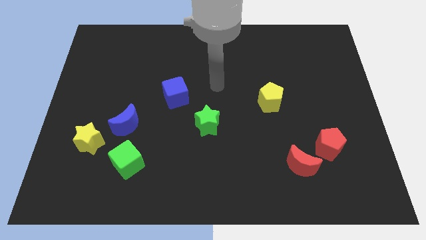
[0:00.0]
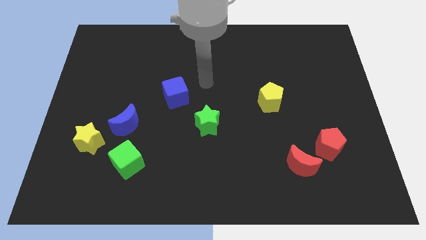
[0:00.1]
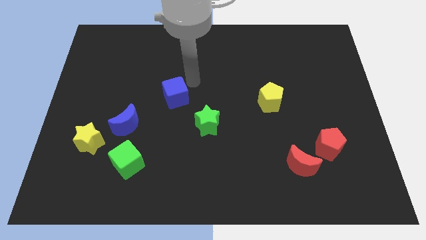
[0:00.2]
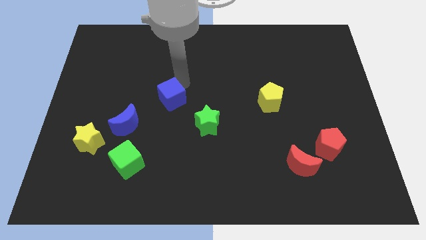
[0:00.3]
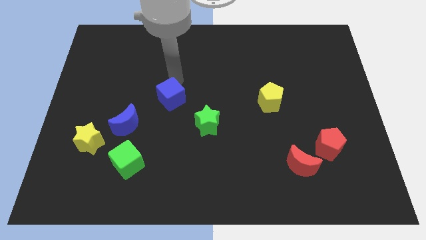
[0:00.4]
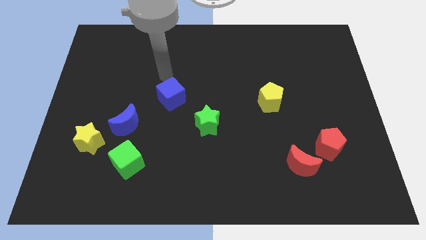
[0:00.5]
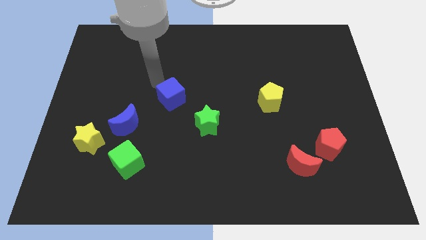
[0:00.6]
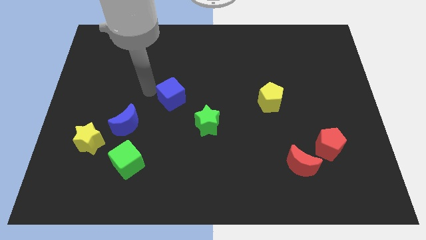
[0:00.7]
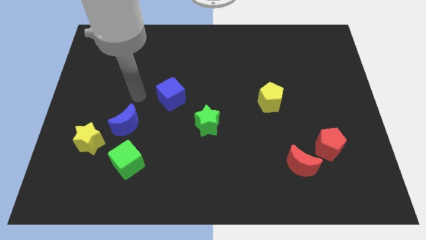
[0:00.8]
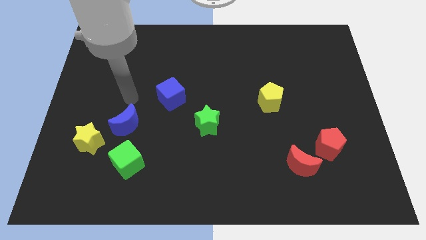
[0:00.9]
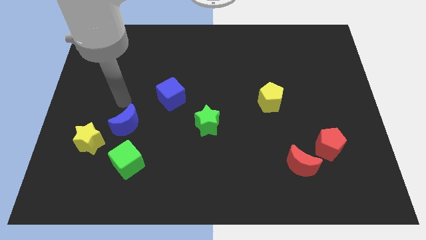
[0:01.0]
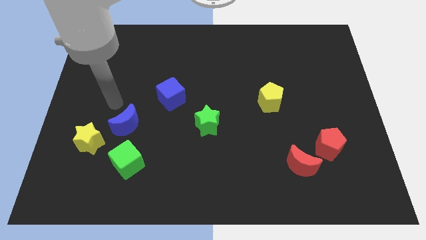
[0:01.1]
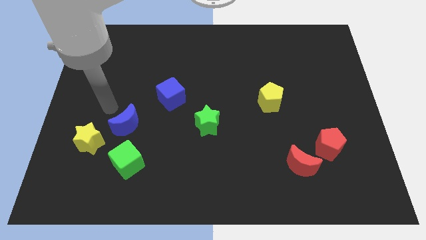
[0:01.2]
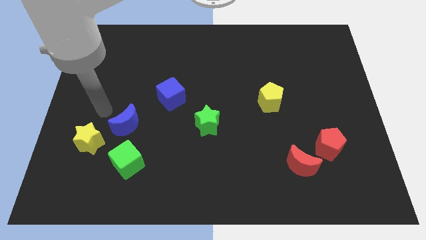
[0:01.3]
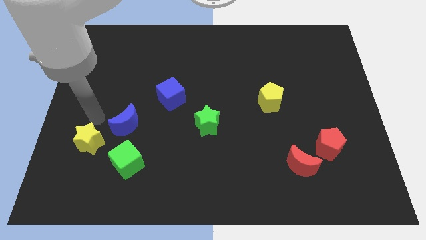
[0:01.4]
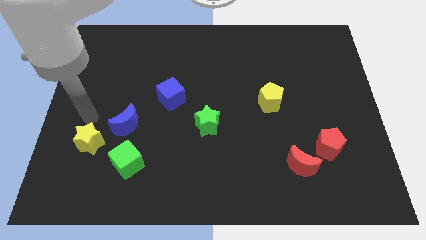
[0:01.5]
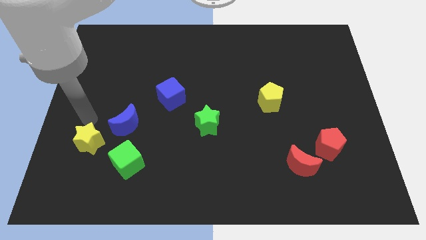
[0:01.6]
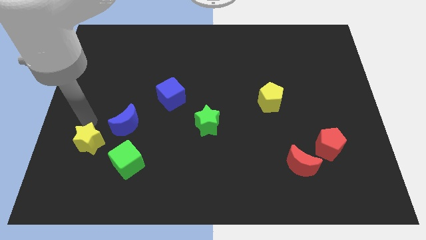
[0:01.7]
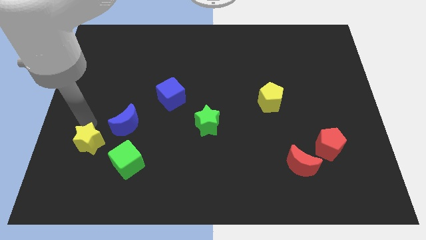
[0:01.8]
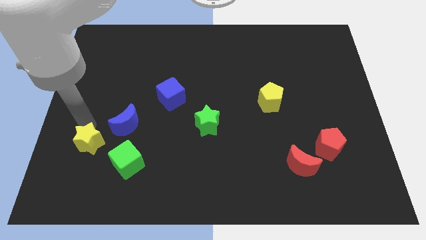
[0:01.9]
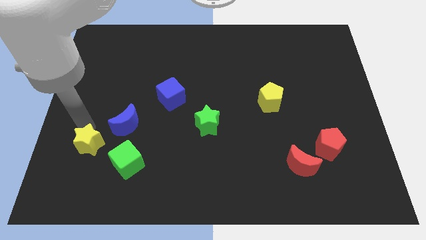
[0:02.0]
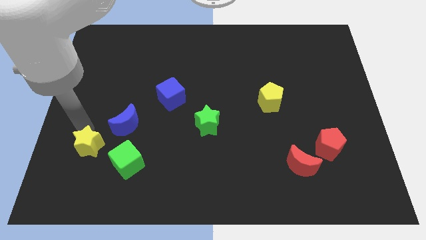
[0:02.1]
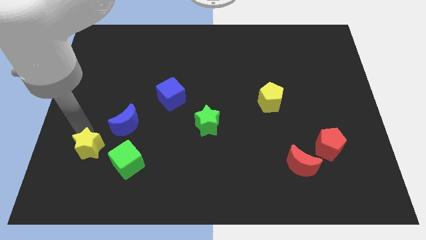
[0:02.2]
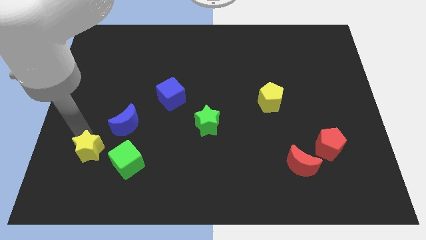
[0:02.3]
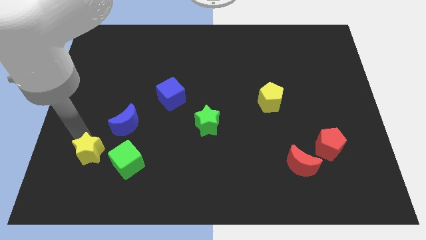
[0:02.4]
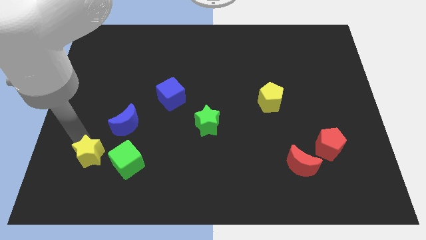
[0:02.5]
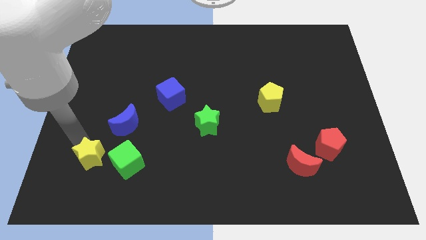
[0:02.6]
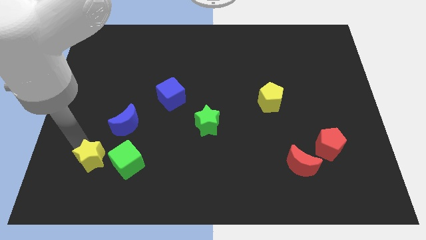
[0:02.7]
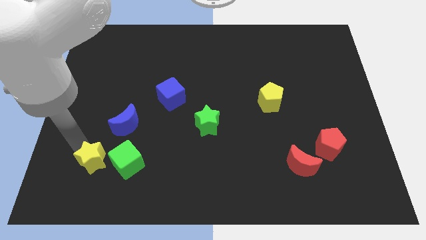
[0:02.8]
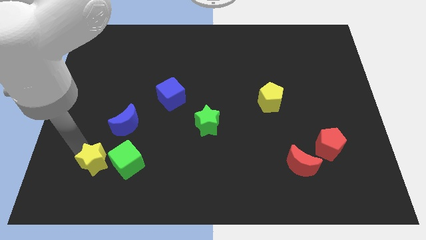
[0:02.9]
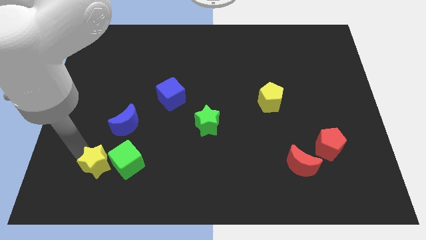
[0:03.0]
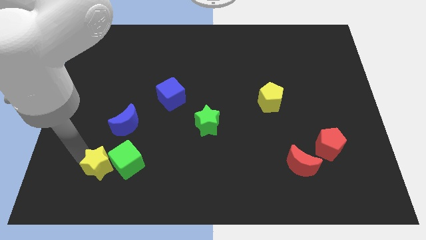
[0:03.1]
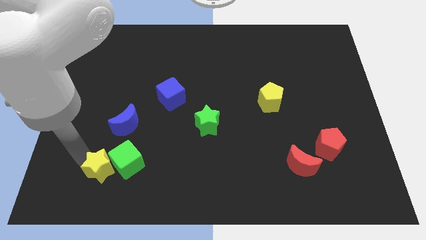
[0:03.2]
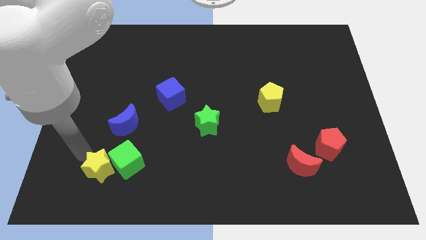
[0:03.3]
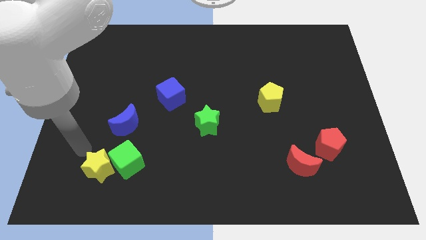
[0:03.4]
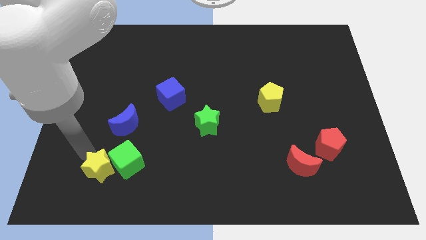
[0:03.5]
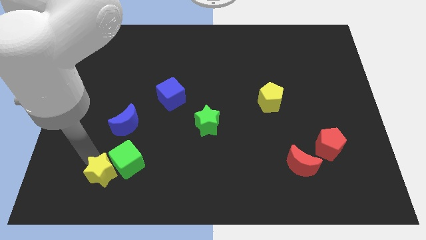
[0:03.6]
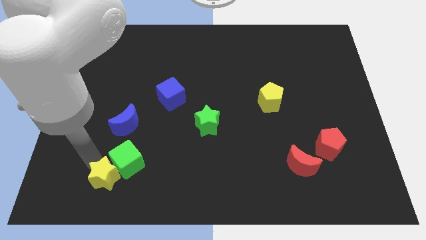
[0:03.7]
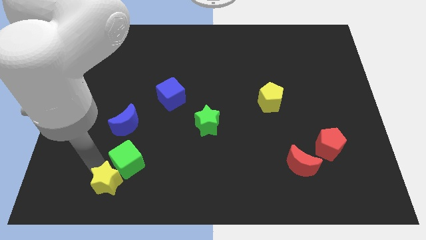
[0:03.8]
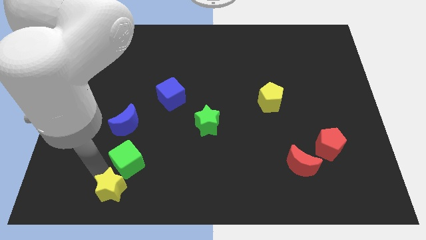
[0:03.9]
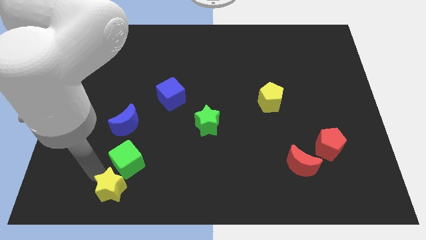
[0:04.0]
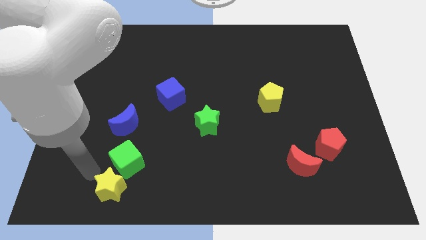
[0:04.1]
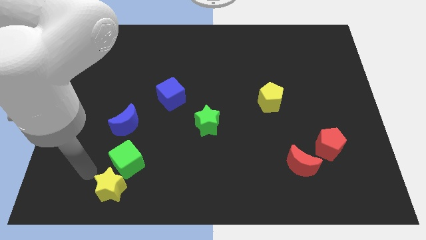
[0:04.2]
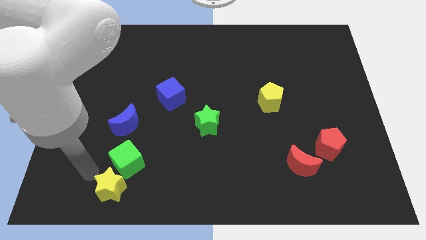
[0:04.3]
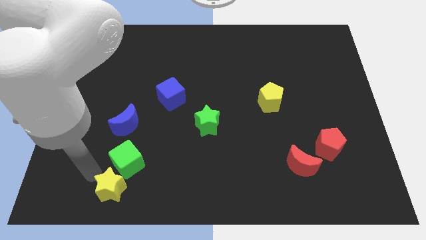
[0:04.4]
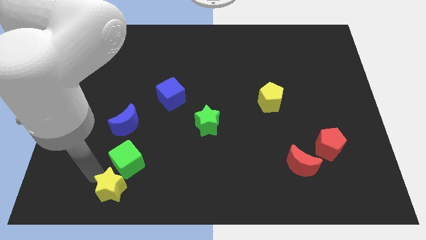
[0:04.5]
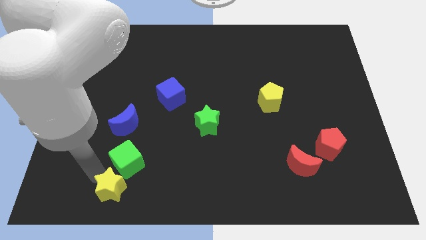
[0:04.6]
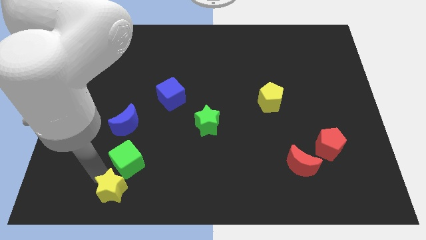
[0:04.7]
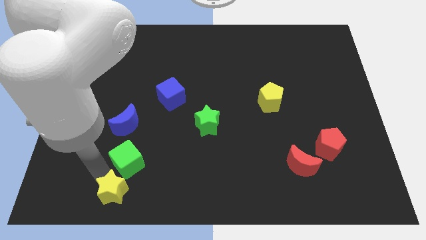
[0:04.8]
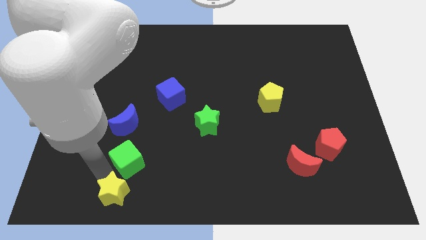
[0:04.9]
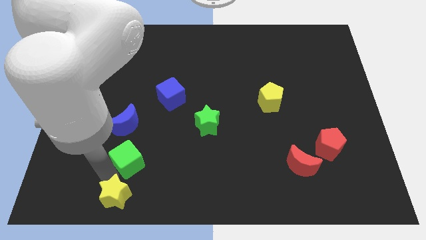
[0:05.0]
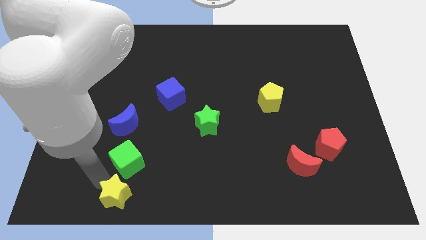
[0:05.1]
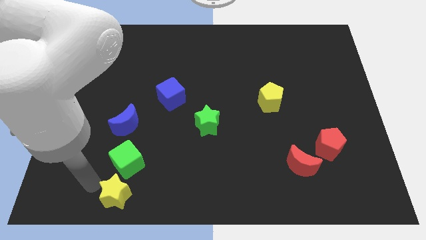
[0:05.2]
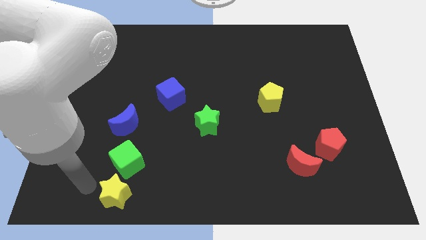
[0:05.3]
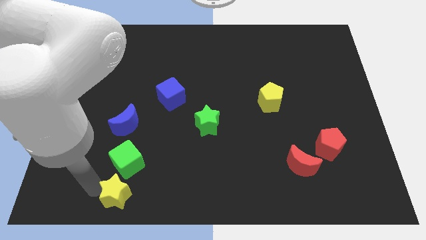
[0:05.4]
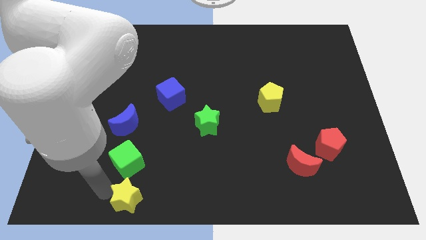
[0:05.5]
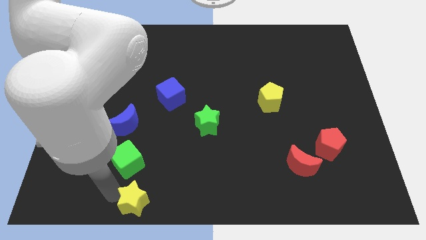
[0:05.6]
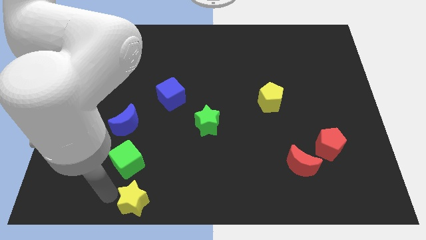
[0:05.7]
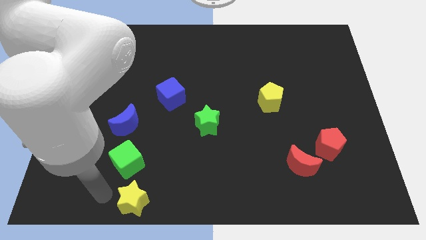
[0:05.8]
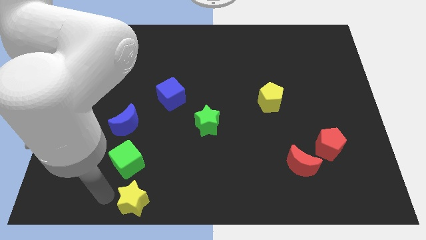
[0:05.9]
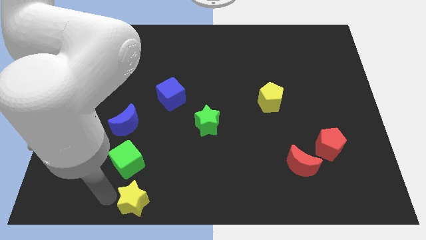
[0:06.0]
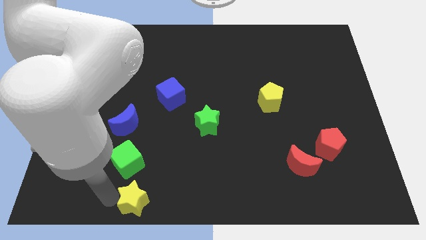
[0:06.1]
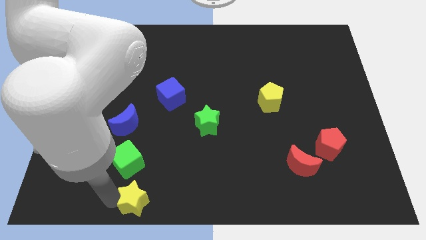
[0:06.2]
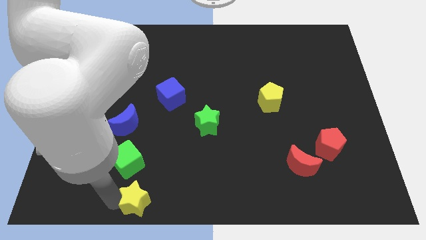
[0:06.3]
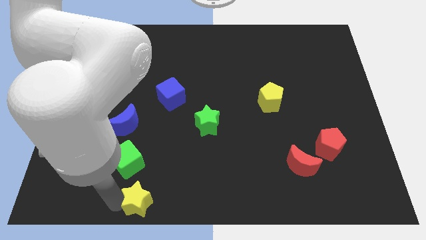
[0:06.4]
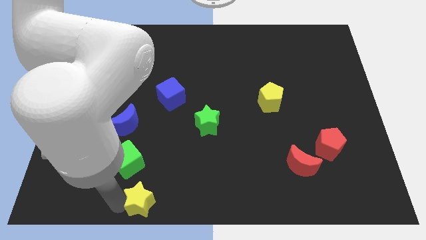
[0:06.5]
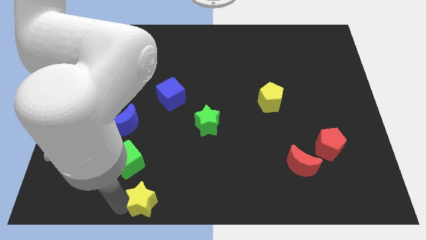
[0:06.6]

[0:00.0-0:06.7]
put the yellow star to the bottom

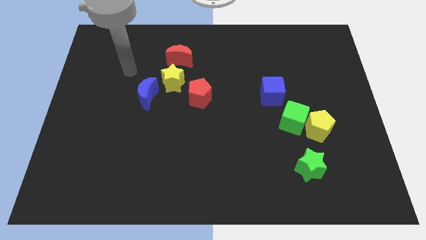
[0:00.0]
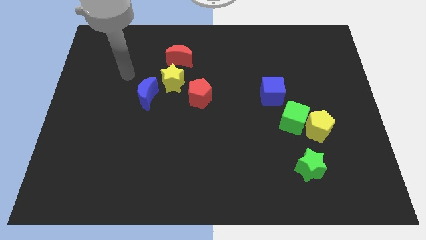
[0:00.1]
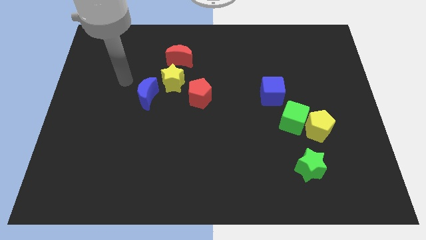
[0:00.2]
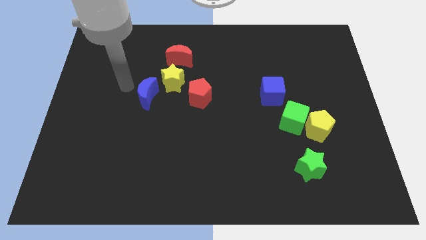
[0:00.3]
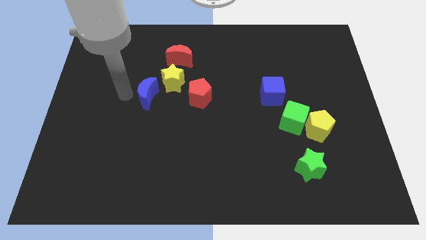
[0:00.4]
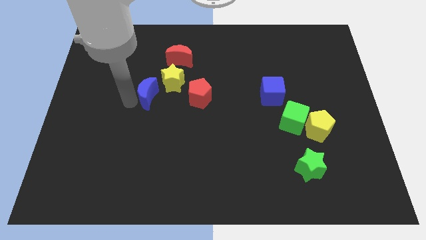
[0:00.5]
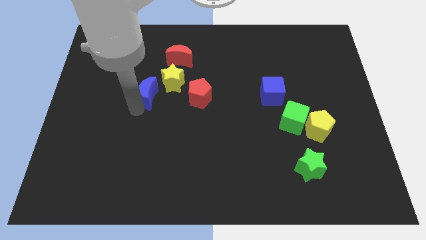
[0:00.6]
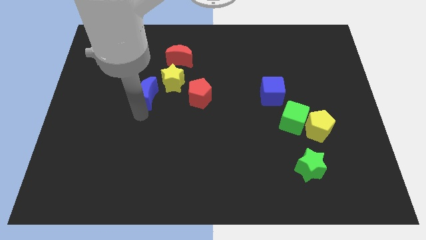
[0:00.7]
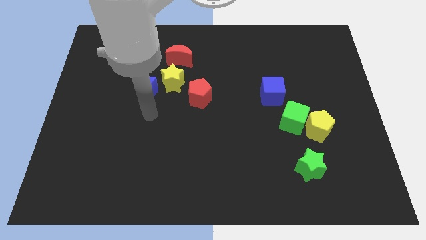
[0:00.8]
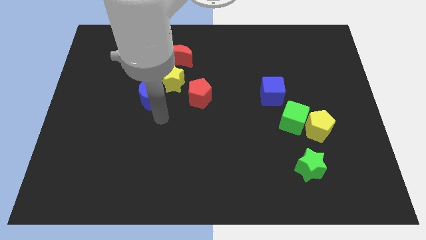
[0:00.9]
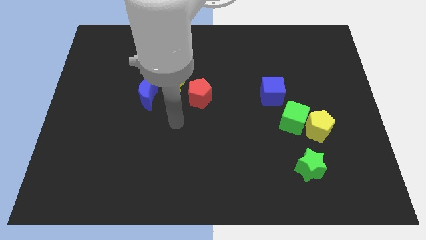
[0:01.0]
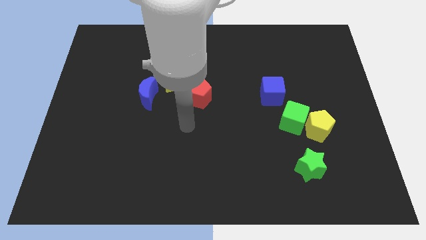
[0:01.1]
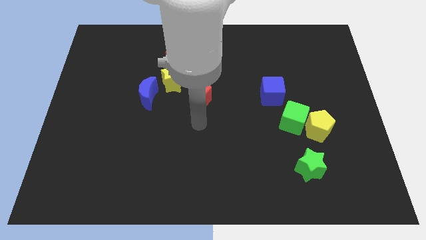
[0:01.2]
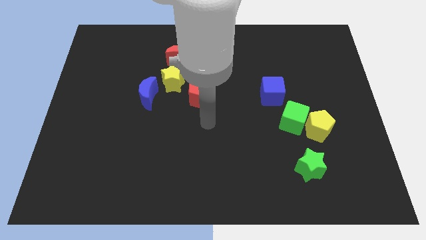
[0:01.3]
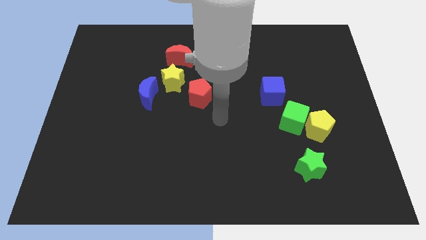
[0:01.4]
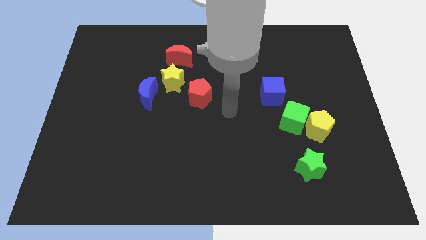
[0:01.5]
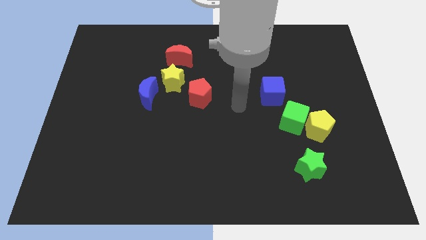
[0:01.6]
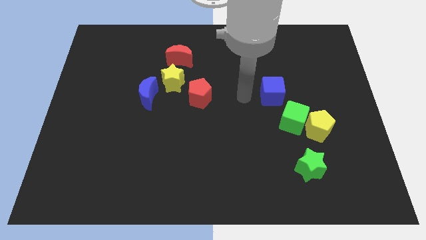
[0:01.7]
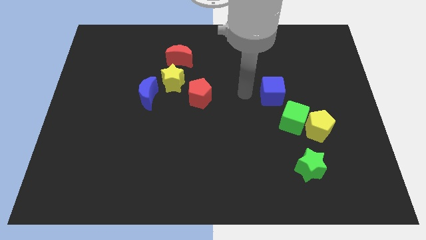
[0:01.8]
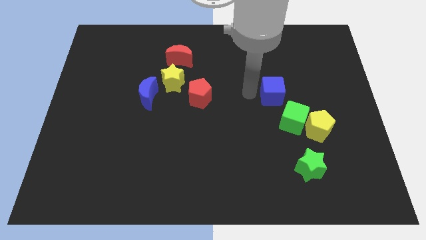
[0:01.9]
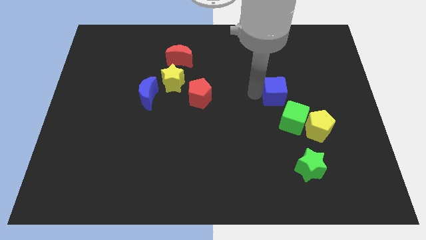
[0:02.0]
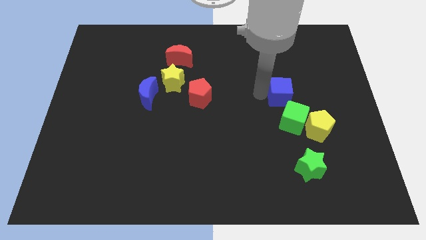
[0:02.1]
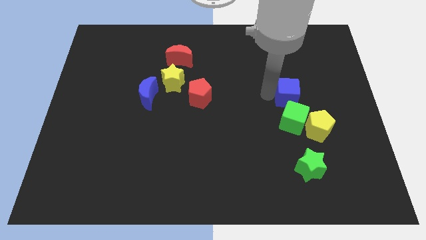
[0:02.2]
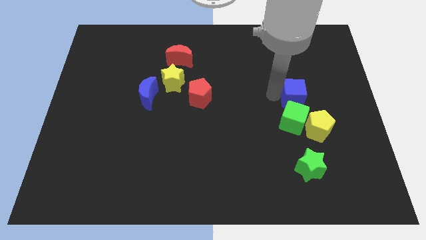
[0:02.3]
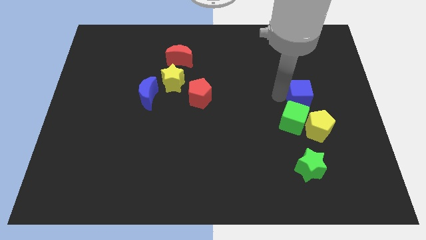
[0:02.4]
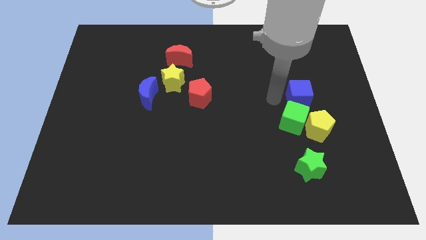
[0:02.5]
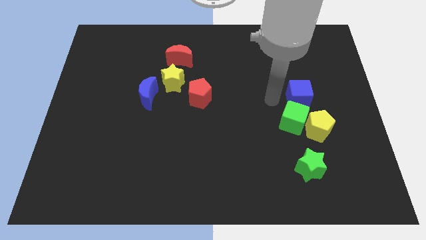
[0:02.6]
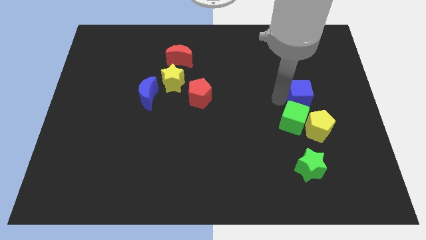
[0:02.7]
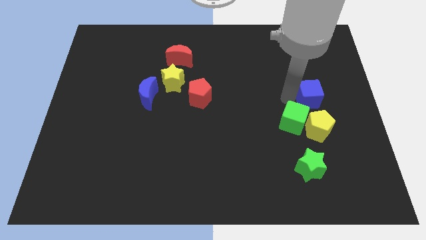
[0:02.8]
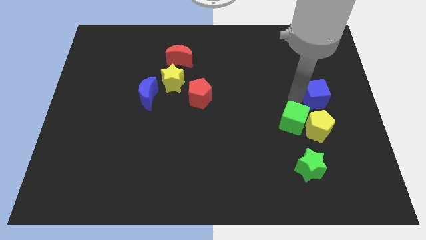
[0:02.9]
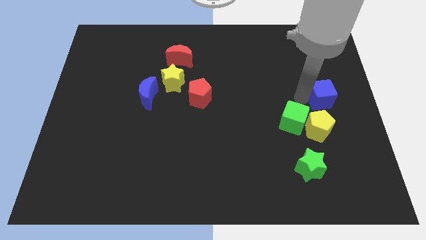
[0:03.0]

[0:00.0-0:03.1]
slide the blue cube to the right side of the board
